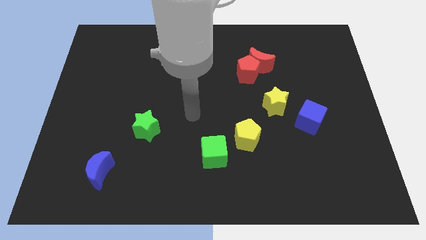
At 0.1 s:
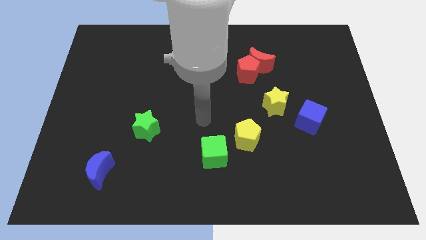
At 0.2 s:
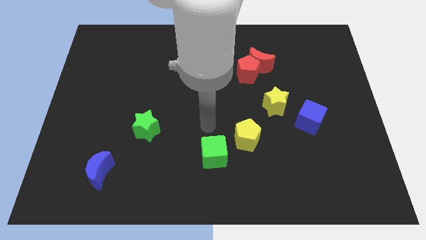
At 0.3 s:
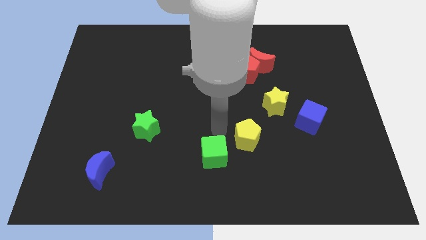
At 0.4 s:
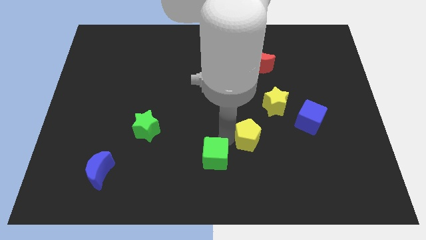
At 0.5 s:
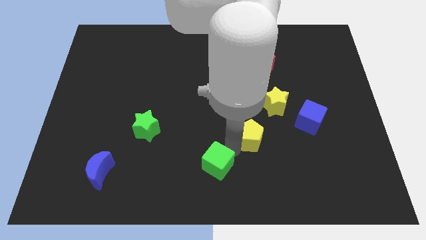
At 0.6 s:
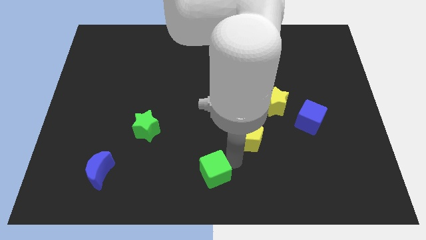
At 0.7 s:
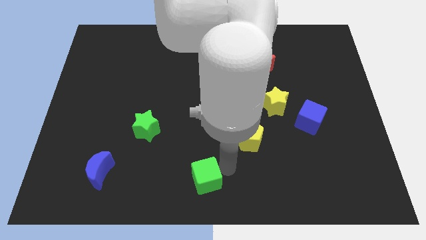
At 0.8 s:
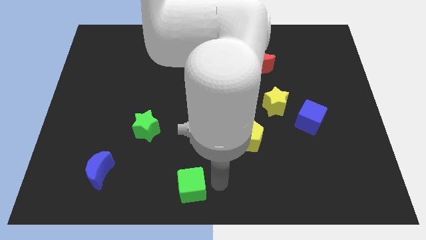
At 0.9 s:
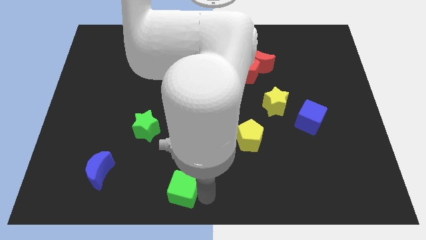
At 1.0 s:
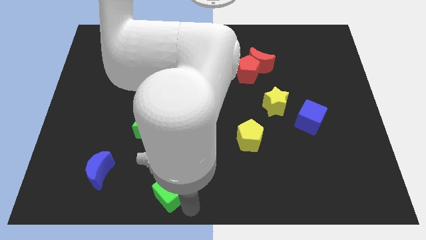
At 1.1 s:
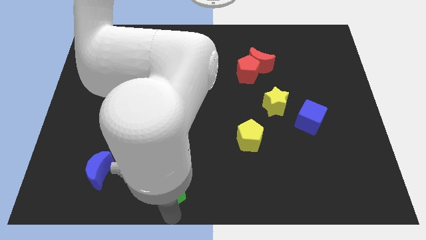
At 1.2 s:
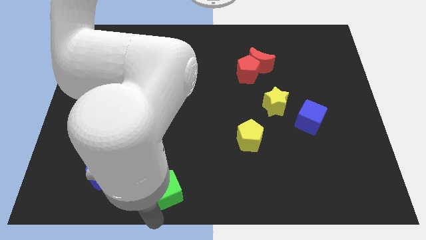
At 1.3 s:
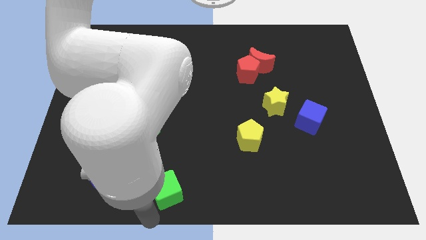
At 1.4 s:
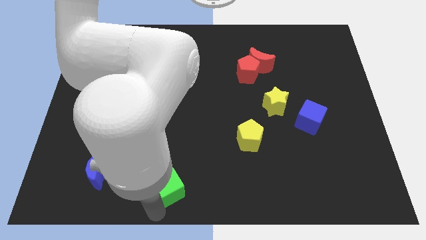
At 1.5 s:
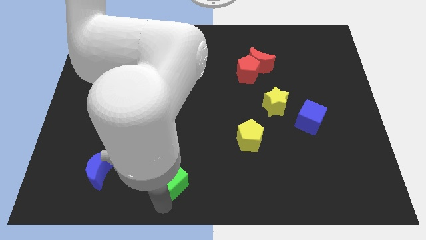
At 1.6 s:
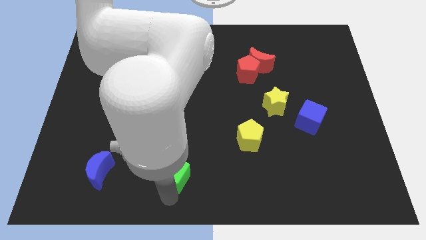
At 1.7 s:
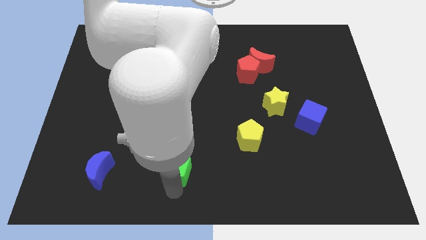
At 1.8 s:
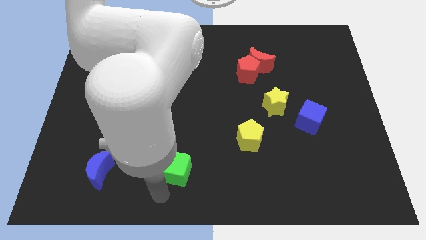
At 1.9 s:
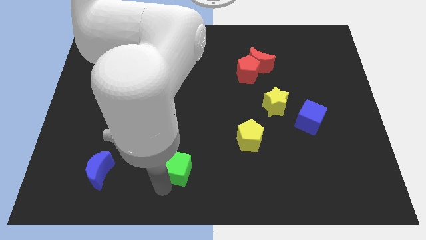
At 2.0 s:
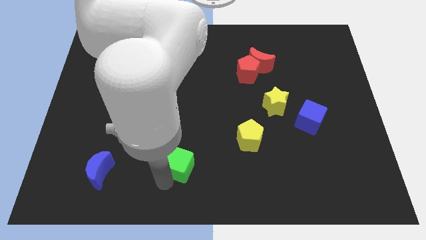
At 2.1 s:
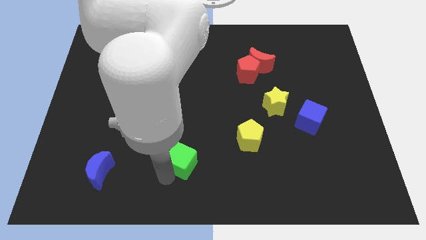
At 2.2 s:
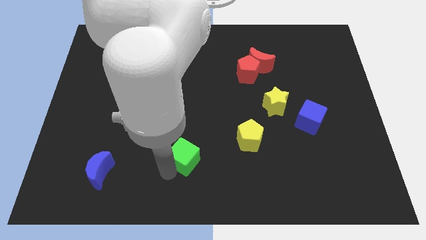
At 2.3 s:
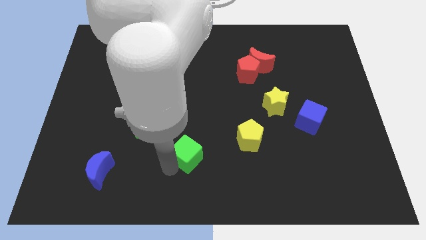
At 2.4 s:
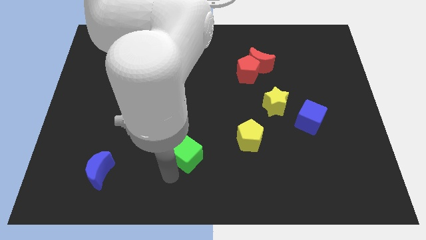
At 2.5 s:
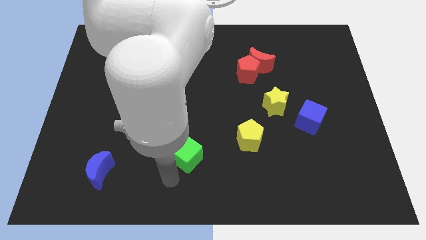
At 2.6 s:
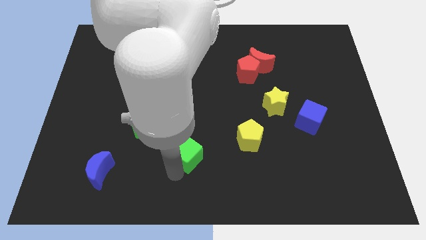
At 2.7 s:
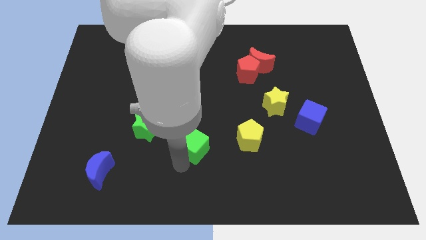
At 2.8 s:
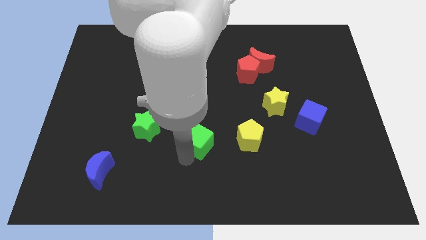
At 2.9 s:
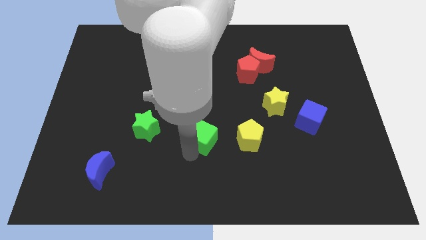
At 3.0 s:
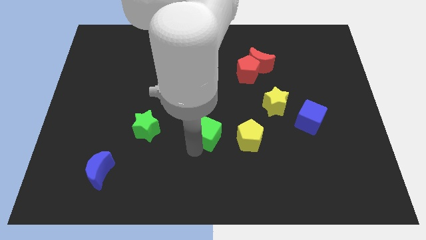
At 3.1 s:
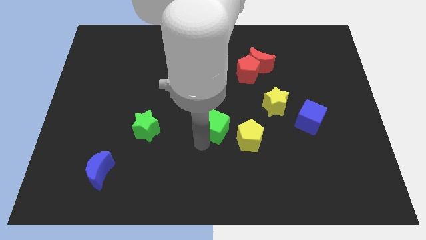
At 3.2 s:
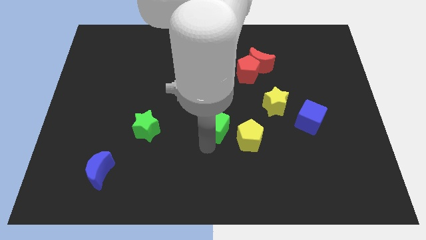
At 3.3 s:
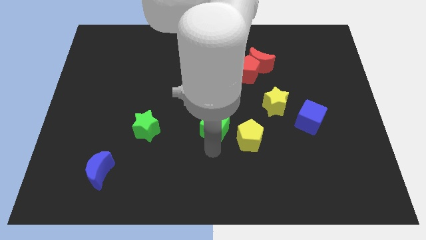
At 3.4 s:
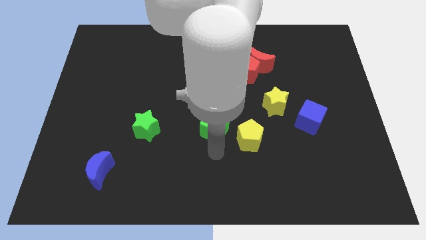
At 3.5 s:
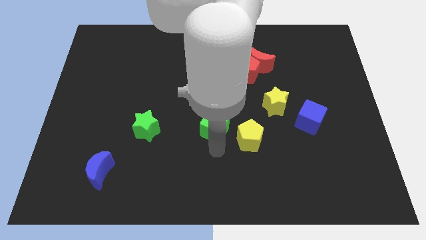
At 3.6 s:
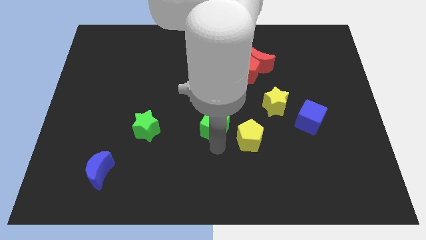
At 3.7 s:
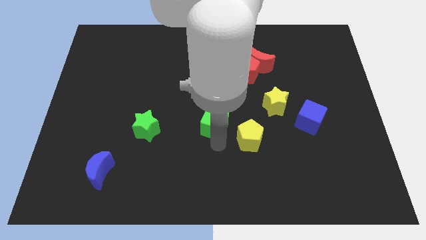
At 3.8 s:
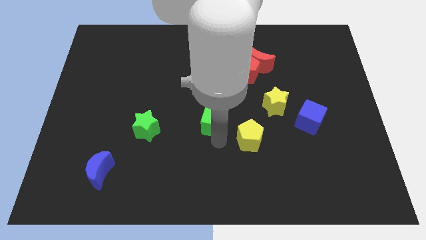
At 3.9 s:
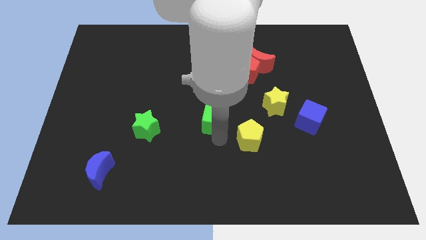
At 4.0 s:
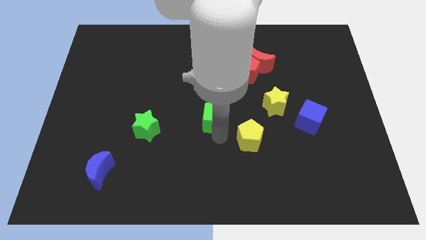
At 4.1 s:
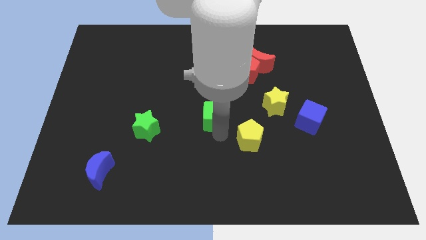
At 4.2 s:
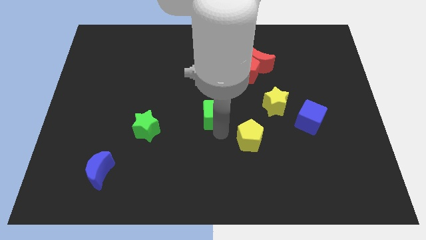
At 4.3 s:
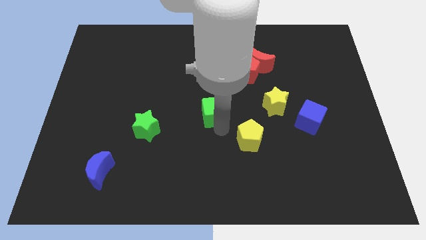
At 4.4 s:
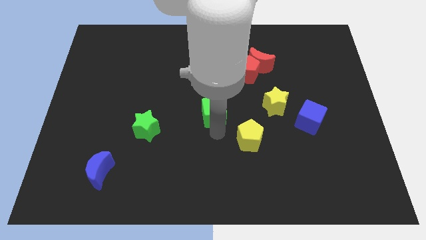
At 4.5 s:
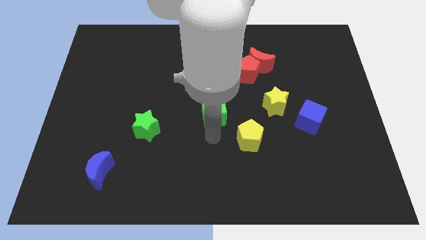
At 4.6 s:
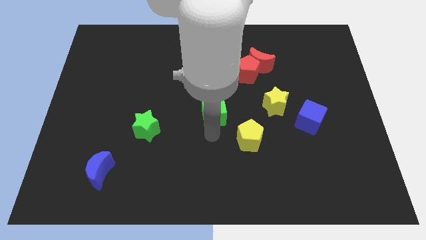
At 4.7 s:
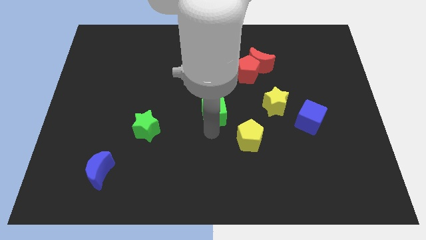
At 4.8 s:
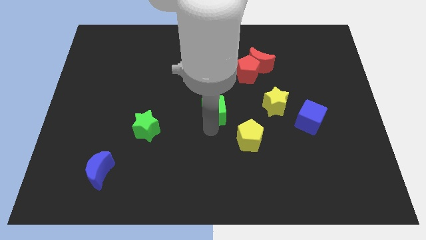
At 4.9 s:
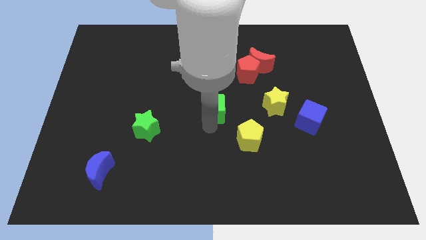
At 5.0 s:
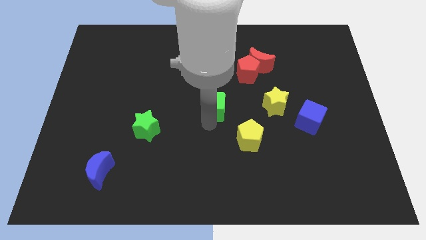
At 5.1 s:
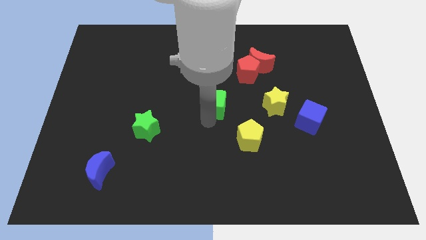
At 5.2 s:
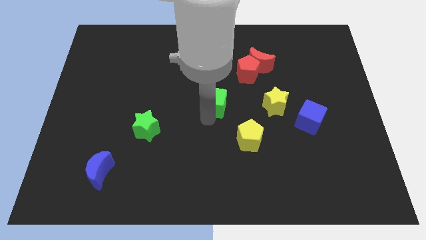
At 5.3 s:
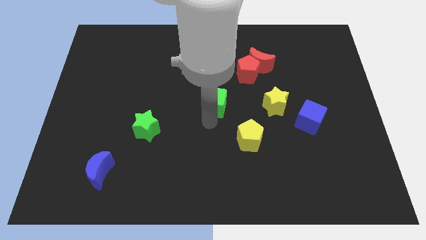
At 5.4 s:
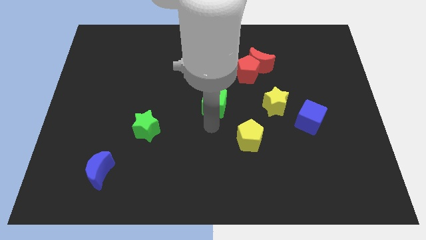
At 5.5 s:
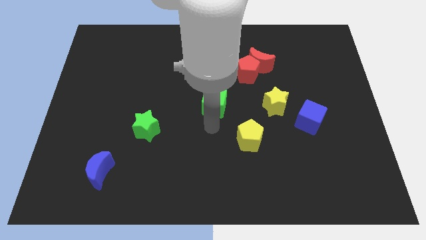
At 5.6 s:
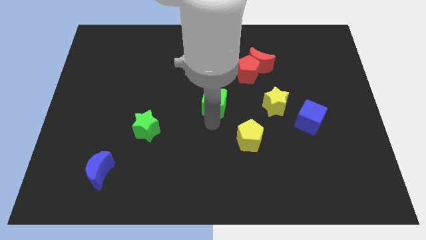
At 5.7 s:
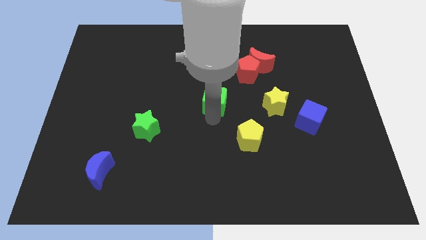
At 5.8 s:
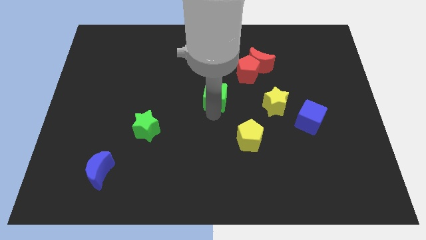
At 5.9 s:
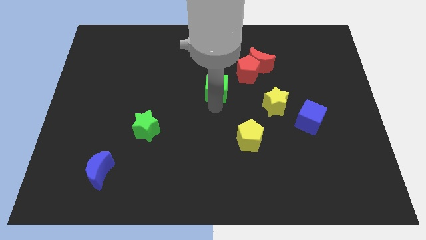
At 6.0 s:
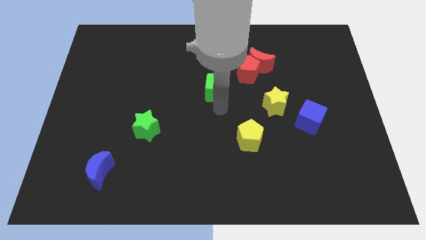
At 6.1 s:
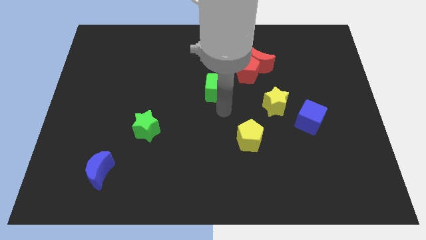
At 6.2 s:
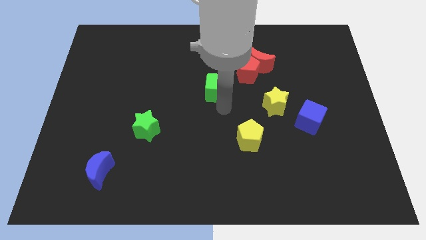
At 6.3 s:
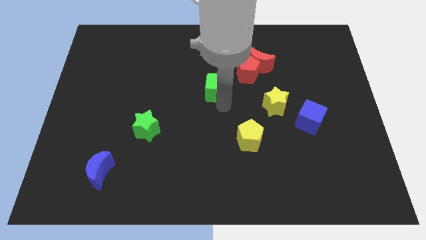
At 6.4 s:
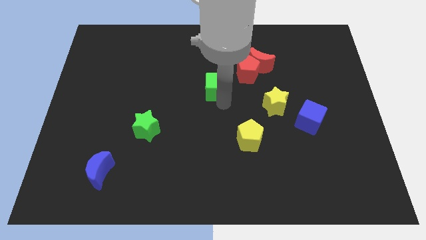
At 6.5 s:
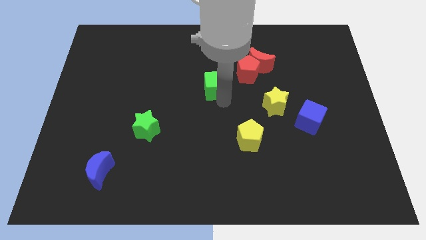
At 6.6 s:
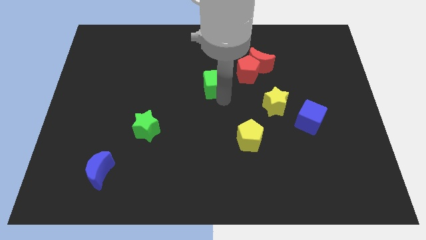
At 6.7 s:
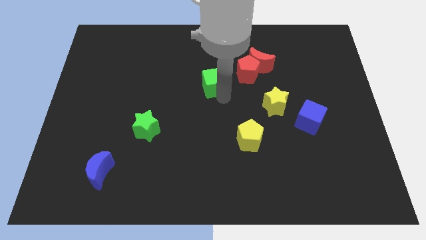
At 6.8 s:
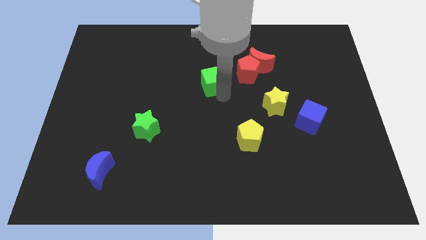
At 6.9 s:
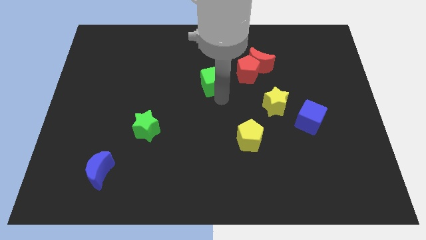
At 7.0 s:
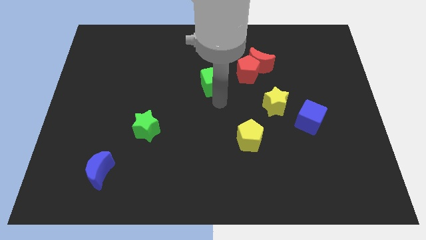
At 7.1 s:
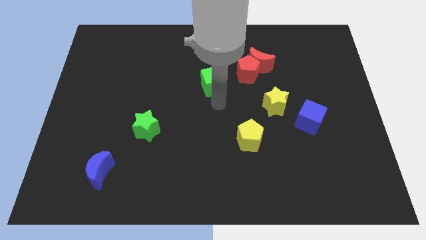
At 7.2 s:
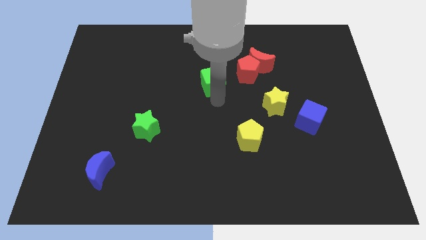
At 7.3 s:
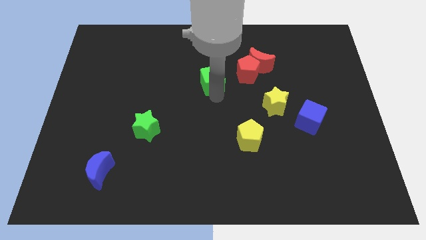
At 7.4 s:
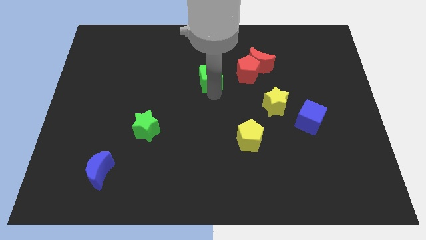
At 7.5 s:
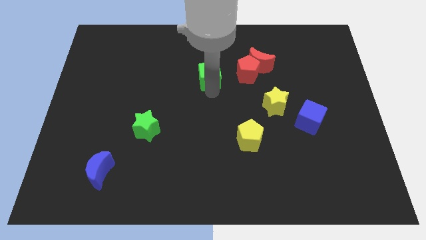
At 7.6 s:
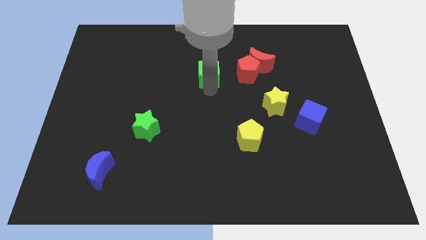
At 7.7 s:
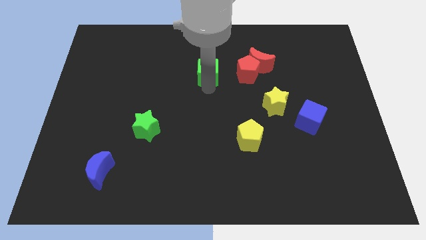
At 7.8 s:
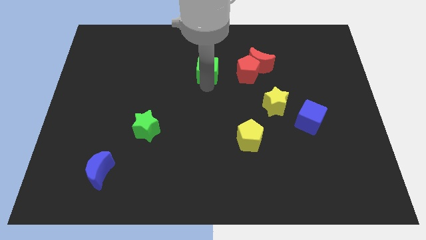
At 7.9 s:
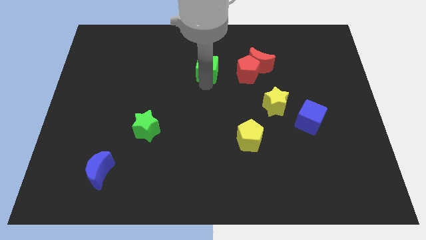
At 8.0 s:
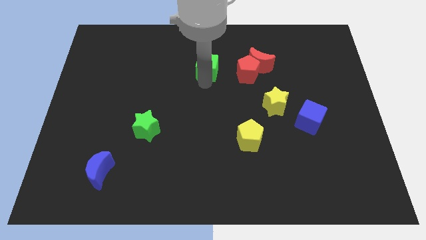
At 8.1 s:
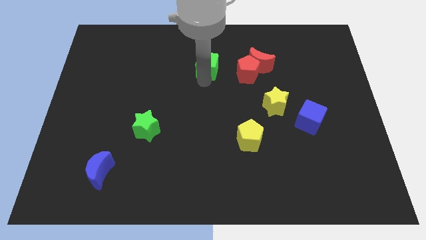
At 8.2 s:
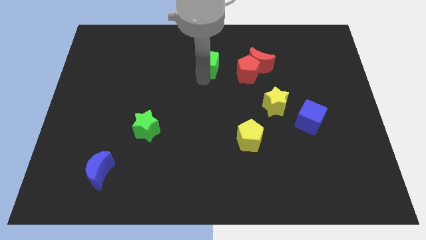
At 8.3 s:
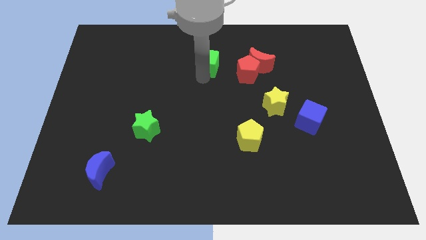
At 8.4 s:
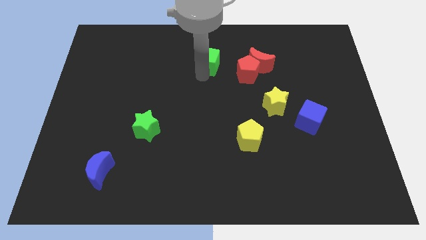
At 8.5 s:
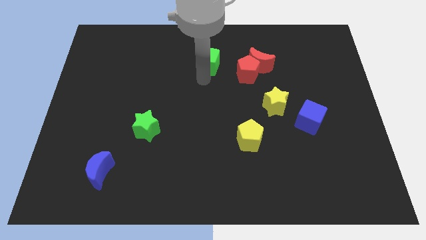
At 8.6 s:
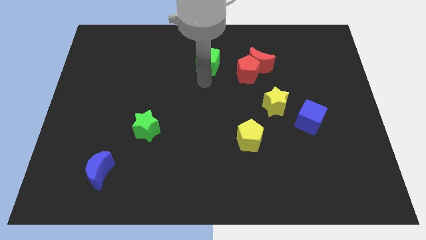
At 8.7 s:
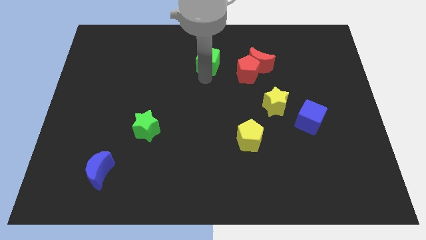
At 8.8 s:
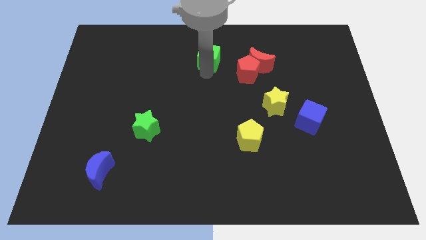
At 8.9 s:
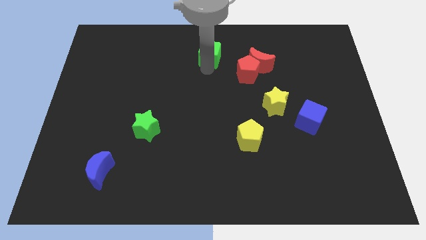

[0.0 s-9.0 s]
put the green cube to the towards your base
